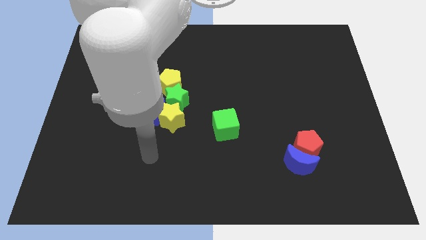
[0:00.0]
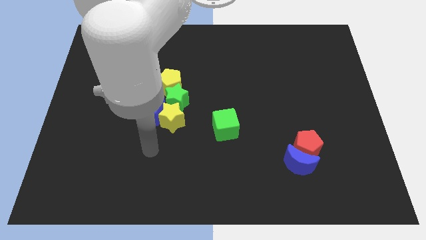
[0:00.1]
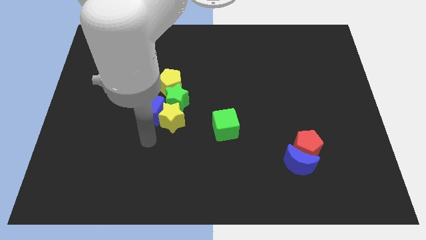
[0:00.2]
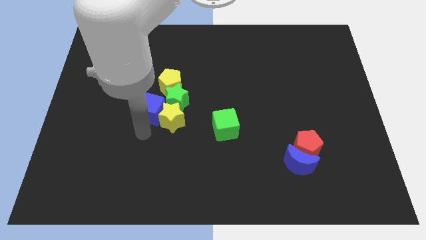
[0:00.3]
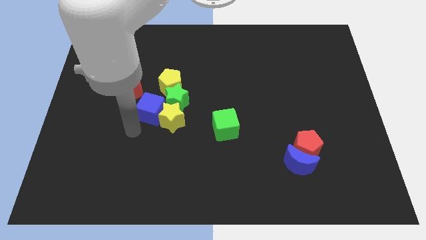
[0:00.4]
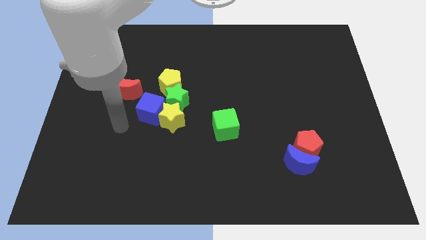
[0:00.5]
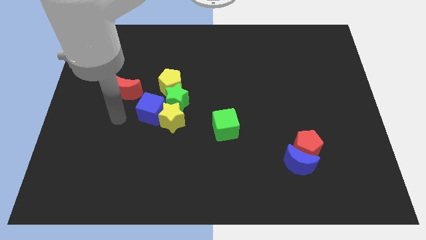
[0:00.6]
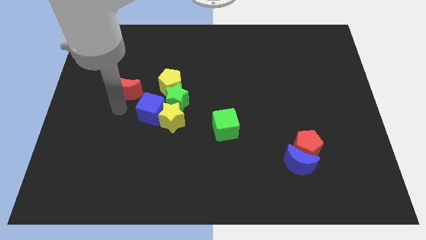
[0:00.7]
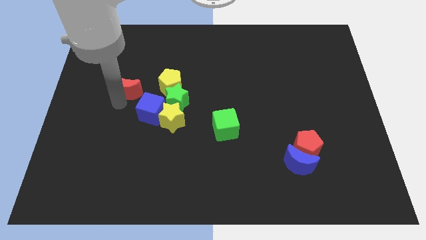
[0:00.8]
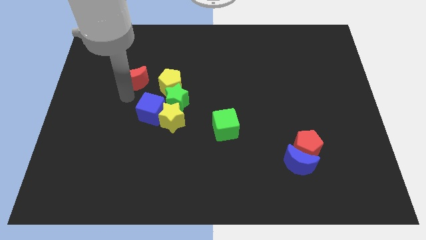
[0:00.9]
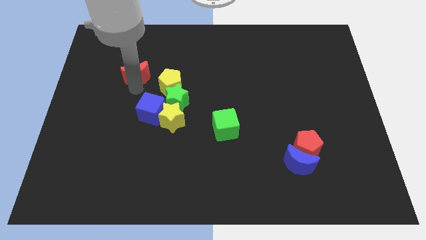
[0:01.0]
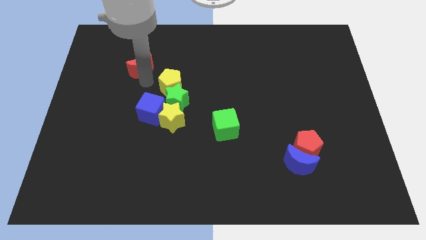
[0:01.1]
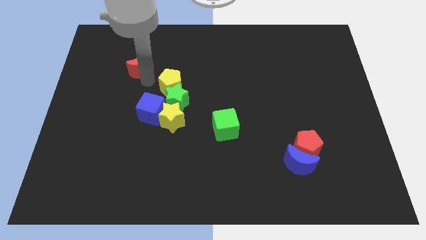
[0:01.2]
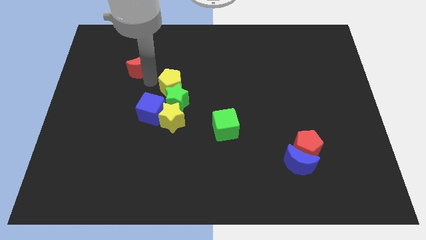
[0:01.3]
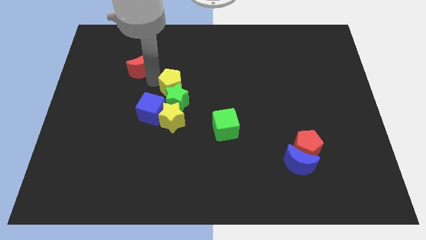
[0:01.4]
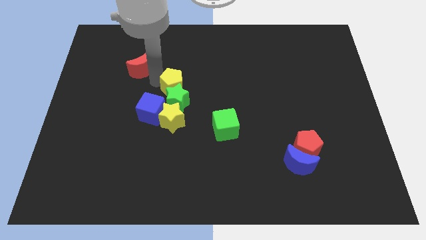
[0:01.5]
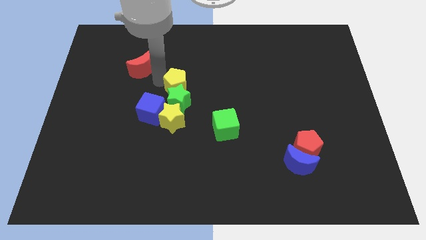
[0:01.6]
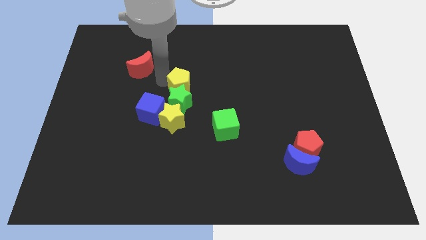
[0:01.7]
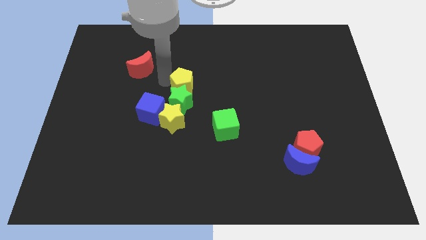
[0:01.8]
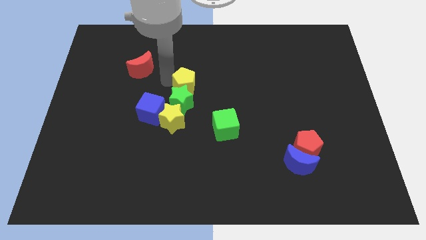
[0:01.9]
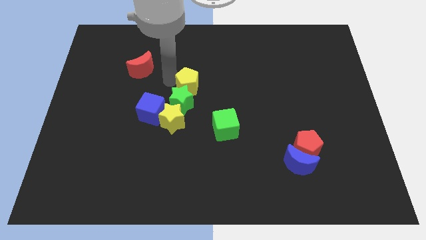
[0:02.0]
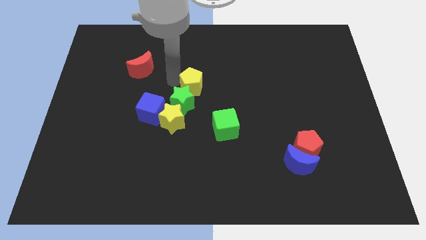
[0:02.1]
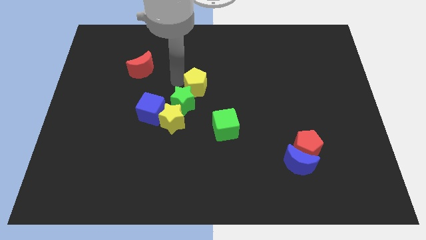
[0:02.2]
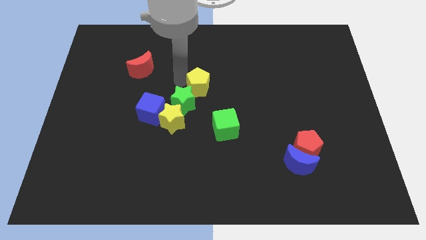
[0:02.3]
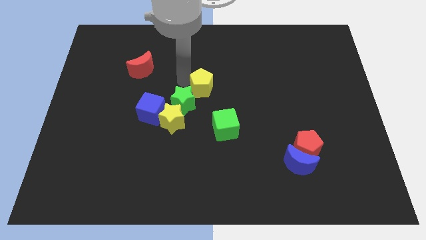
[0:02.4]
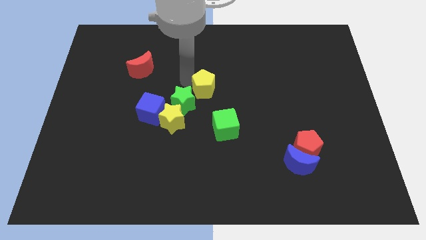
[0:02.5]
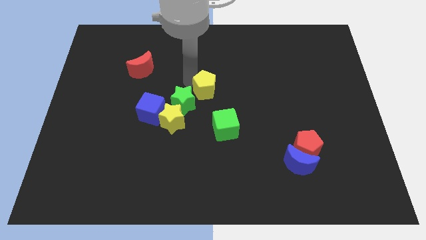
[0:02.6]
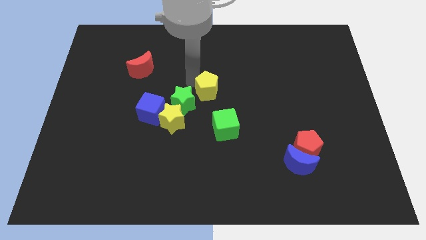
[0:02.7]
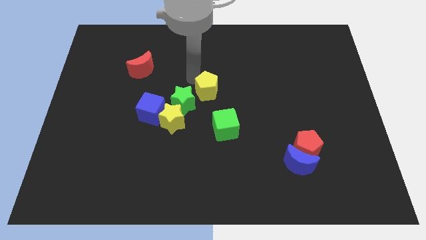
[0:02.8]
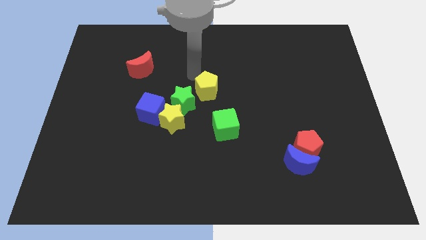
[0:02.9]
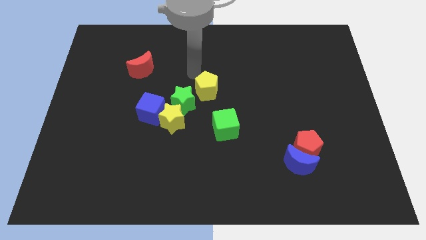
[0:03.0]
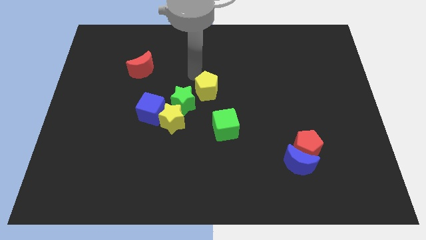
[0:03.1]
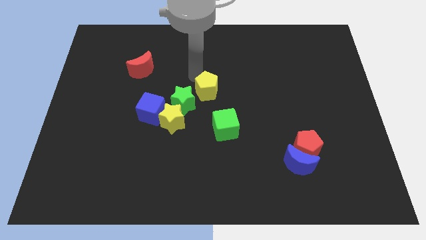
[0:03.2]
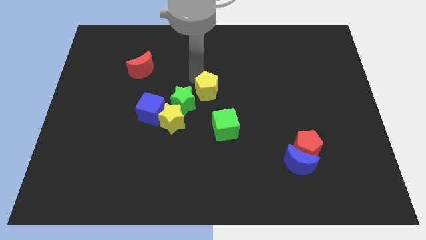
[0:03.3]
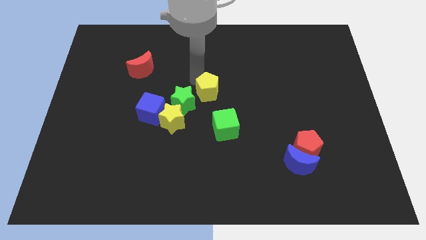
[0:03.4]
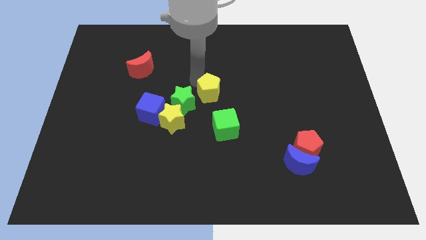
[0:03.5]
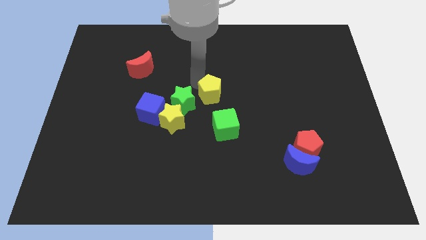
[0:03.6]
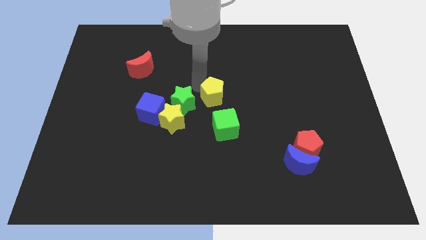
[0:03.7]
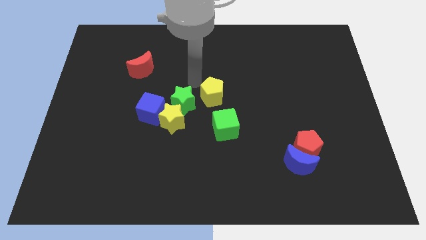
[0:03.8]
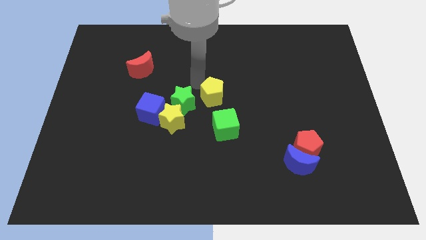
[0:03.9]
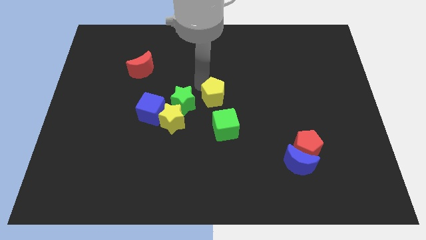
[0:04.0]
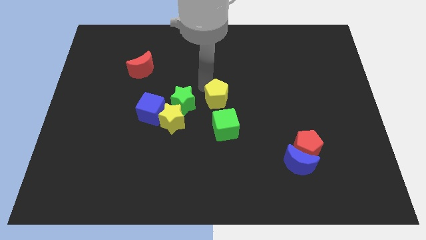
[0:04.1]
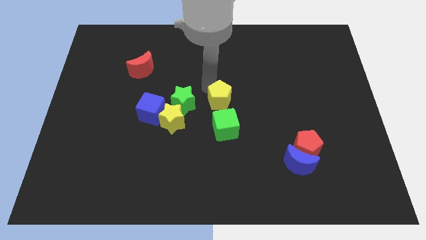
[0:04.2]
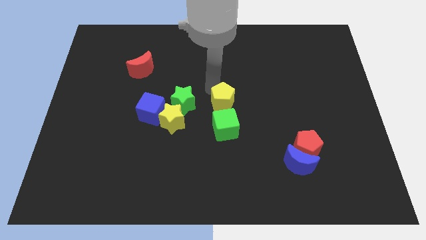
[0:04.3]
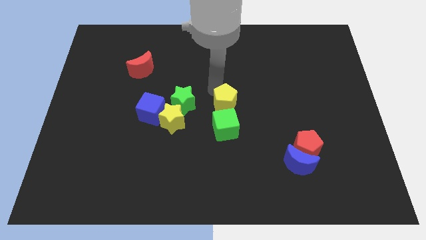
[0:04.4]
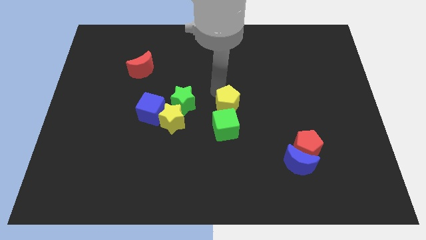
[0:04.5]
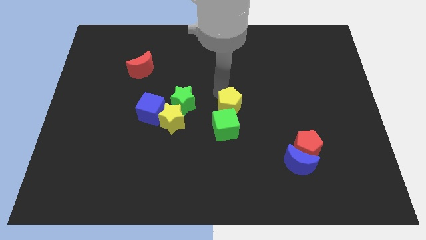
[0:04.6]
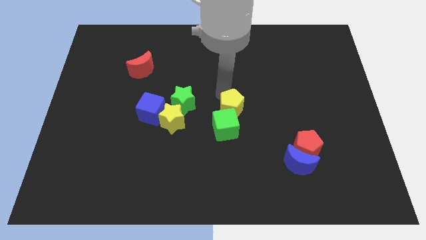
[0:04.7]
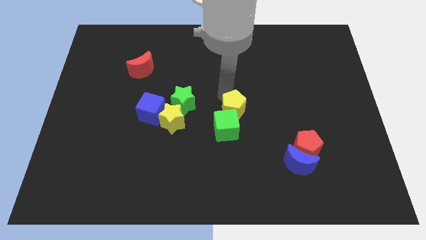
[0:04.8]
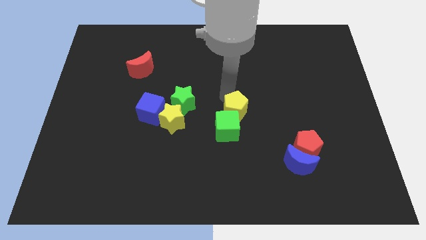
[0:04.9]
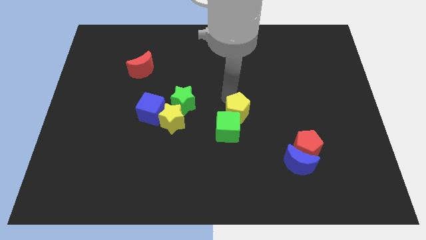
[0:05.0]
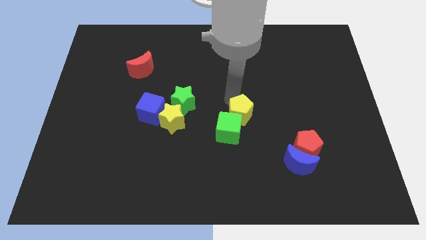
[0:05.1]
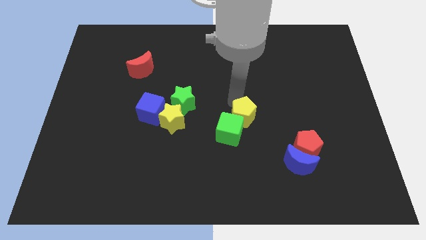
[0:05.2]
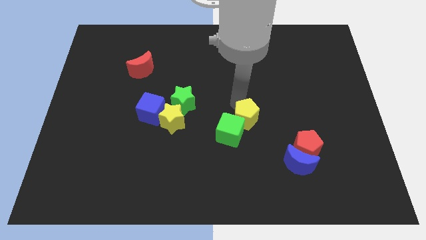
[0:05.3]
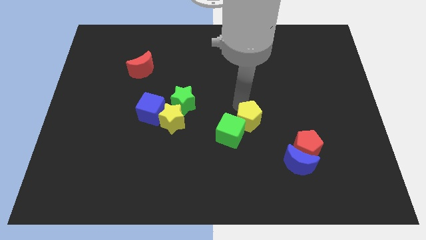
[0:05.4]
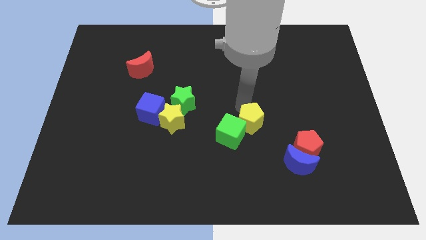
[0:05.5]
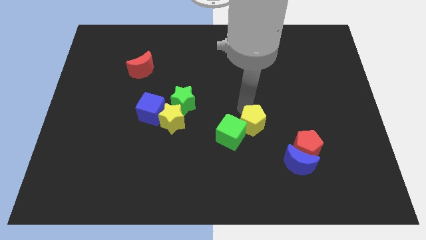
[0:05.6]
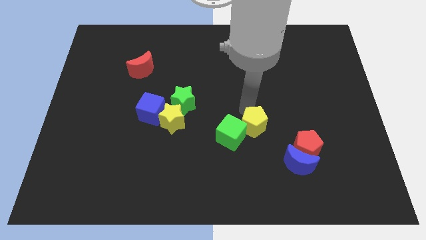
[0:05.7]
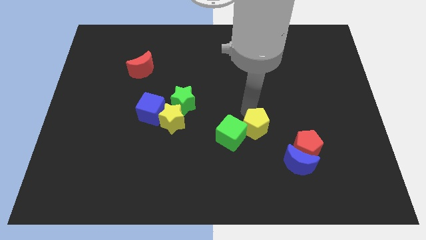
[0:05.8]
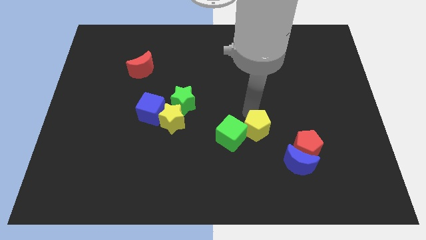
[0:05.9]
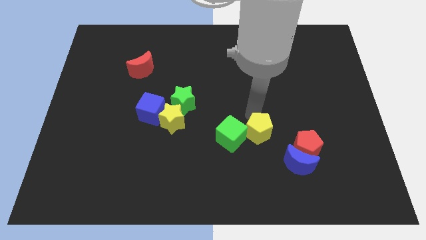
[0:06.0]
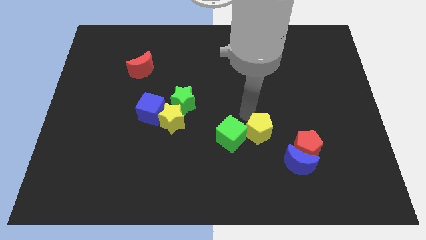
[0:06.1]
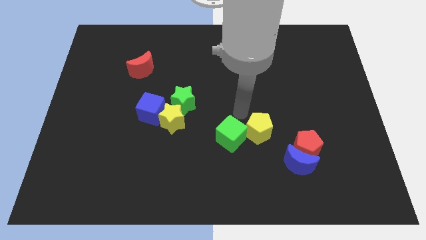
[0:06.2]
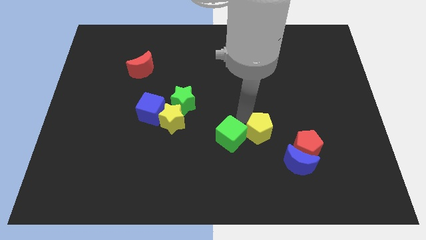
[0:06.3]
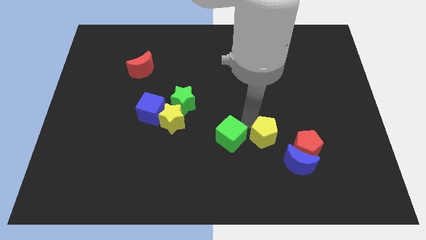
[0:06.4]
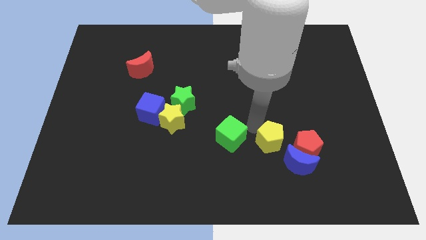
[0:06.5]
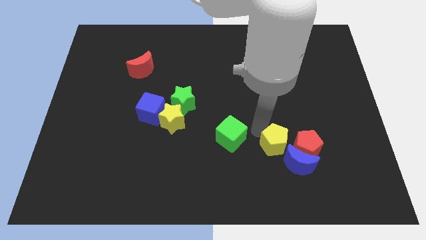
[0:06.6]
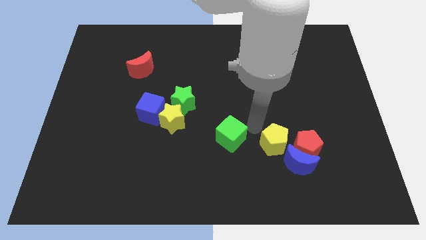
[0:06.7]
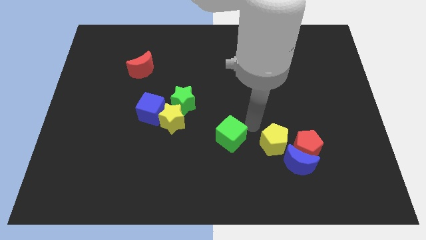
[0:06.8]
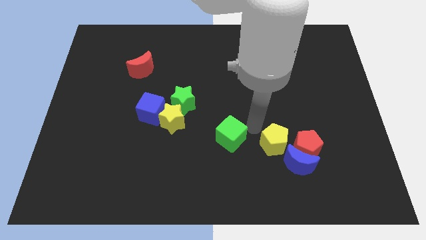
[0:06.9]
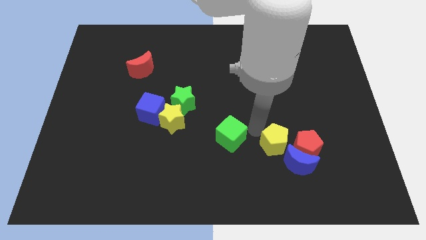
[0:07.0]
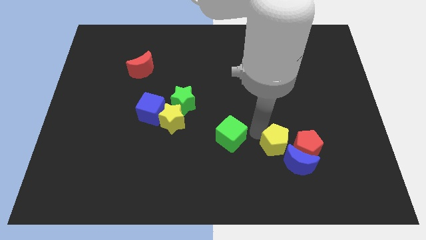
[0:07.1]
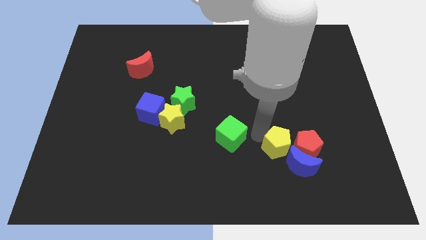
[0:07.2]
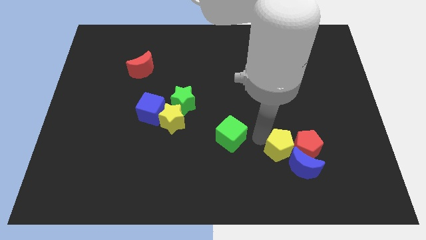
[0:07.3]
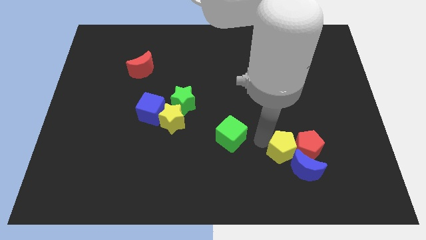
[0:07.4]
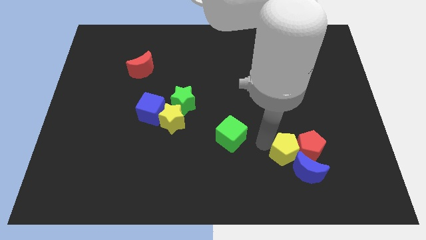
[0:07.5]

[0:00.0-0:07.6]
slide the yellow pentagon close to the blue moon
